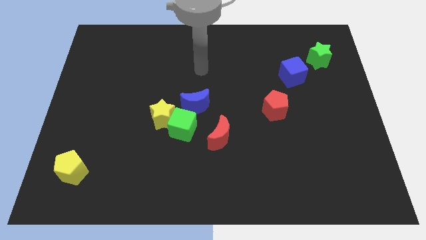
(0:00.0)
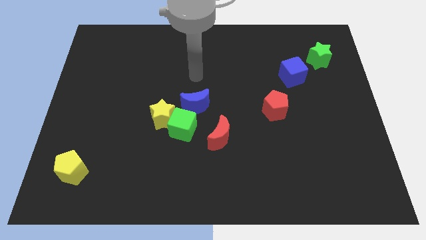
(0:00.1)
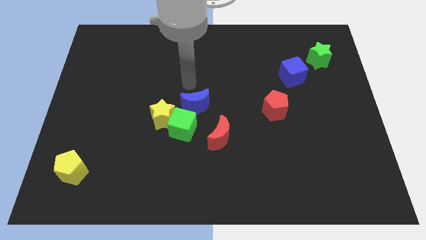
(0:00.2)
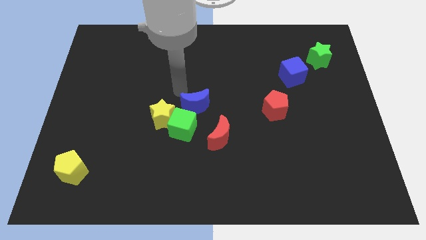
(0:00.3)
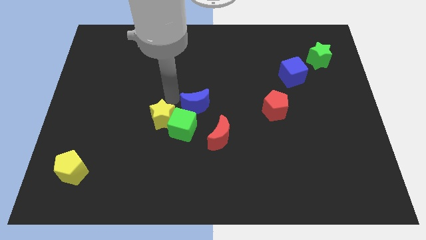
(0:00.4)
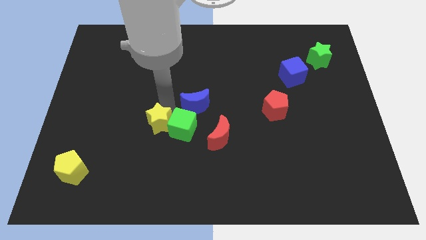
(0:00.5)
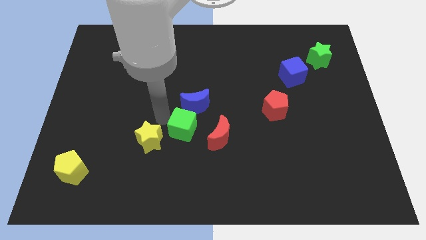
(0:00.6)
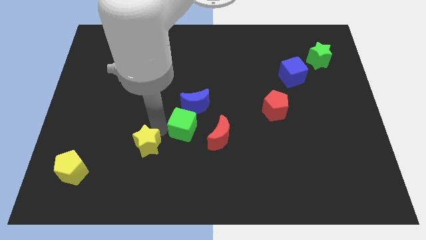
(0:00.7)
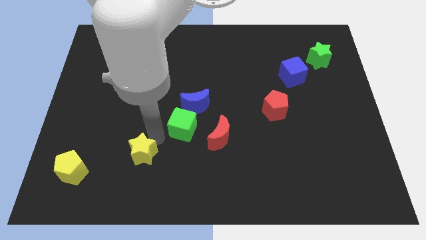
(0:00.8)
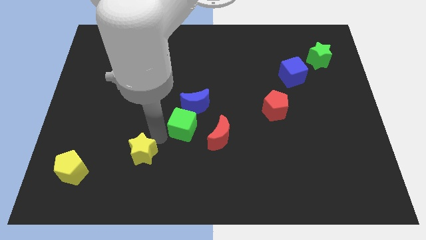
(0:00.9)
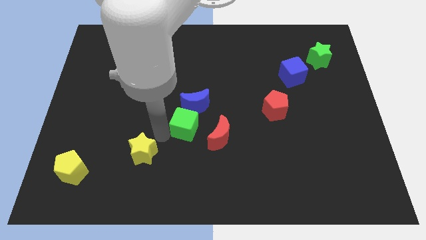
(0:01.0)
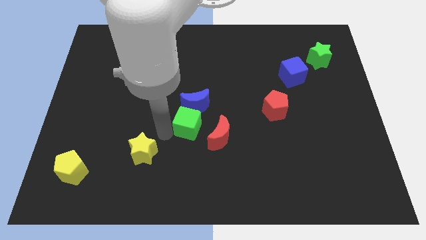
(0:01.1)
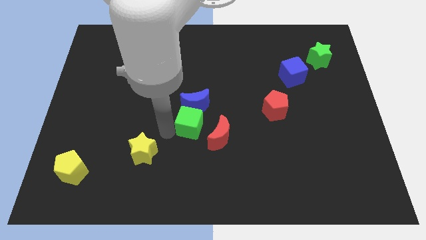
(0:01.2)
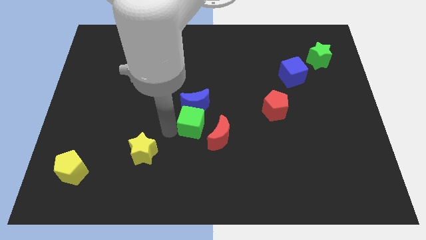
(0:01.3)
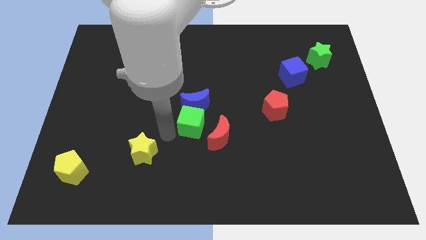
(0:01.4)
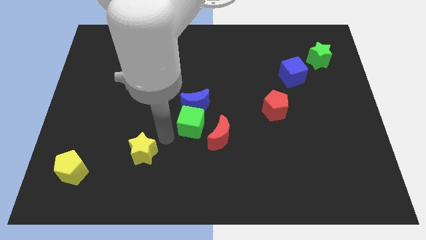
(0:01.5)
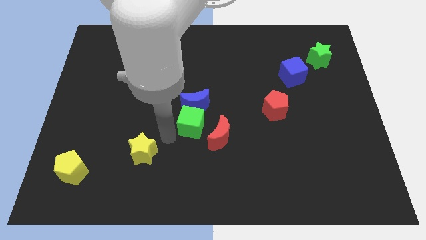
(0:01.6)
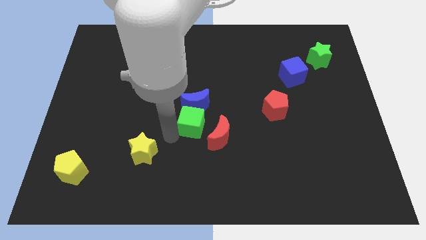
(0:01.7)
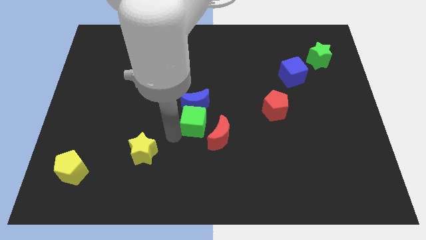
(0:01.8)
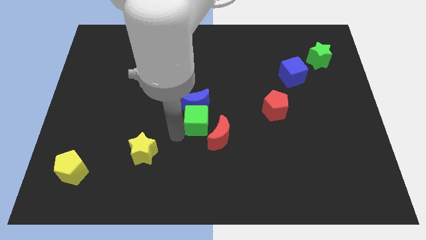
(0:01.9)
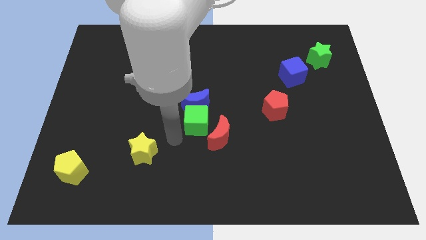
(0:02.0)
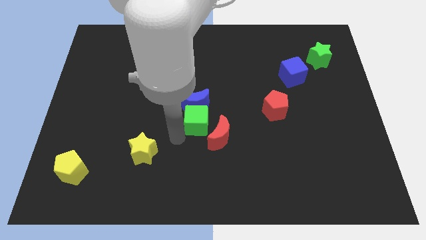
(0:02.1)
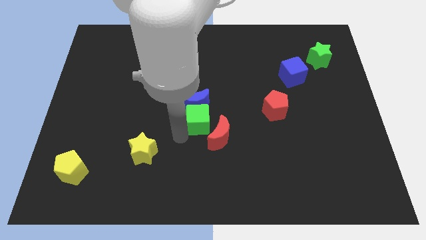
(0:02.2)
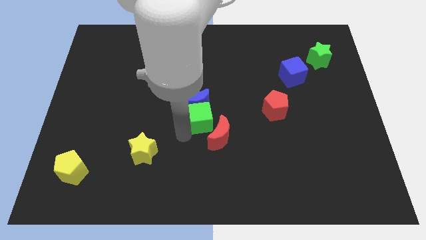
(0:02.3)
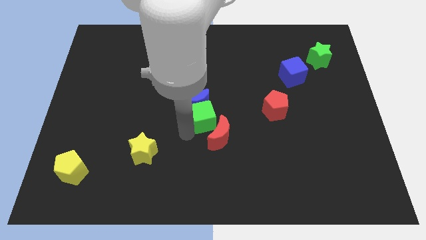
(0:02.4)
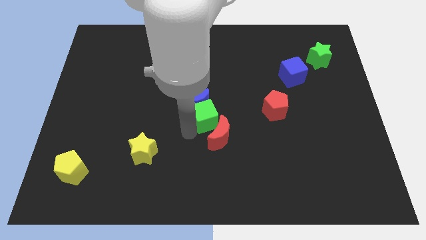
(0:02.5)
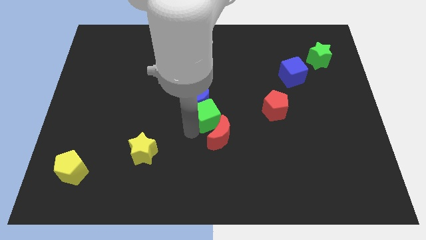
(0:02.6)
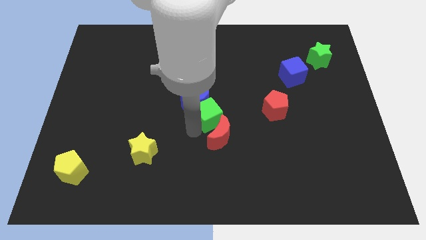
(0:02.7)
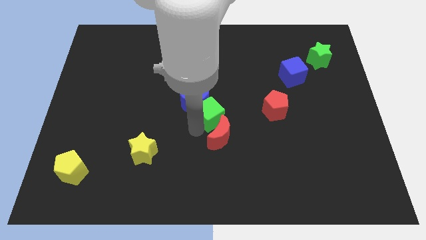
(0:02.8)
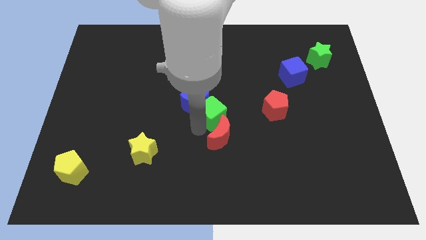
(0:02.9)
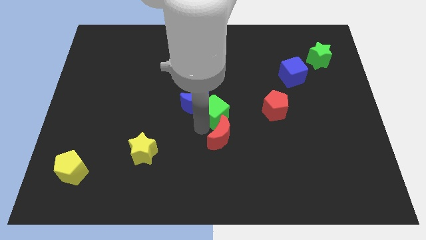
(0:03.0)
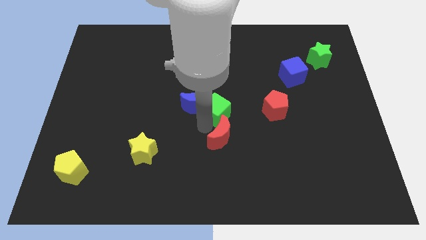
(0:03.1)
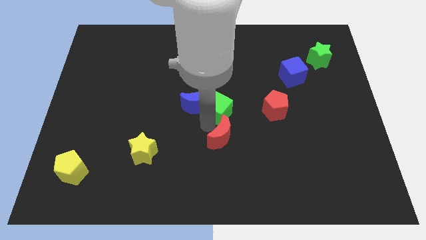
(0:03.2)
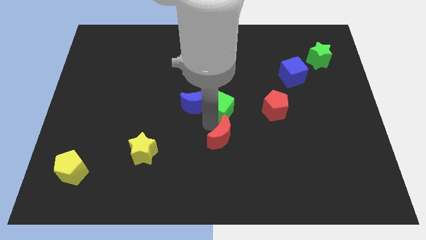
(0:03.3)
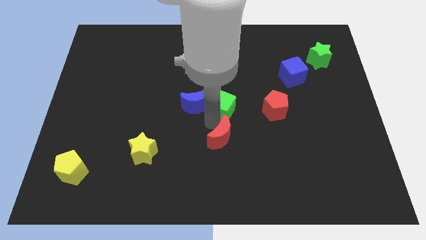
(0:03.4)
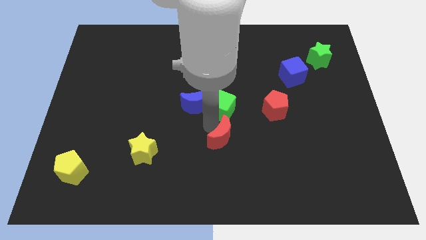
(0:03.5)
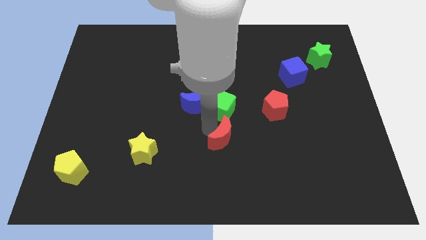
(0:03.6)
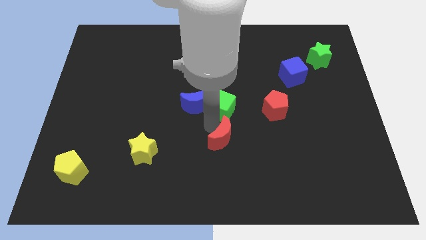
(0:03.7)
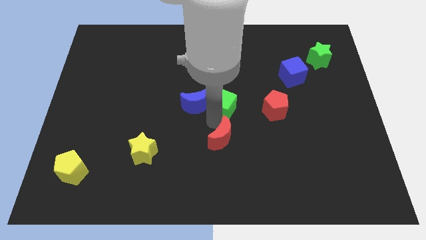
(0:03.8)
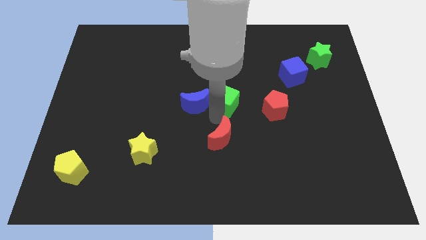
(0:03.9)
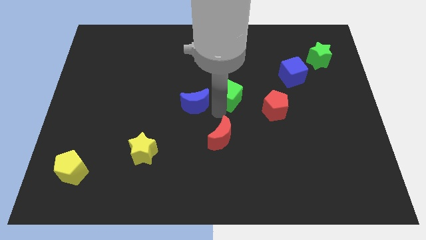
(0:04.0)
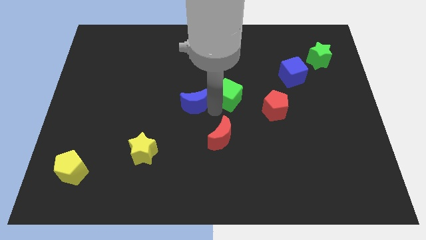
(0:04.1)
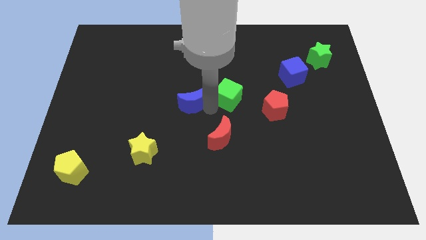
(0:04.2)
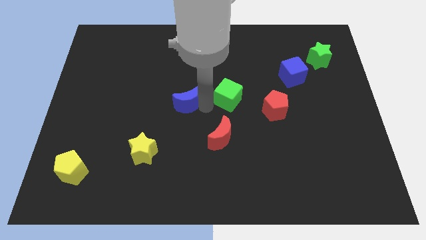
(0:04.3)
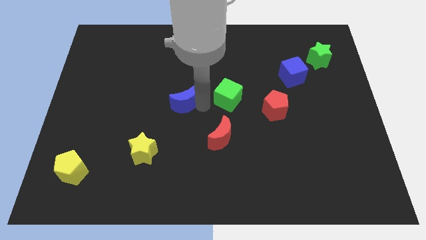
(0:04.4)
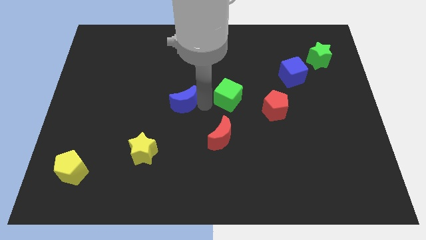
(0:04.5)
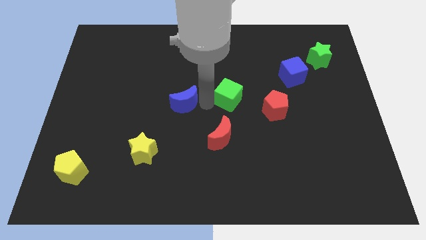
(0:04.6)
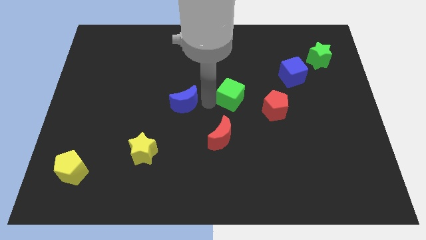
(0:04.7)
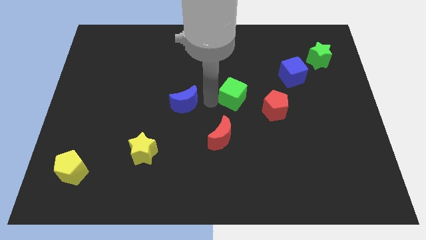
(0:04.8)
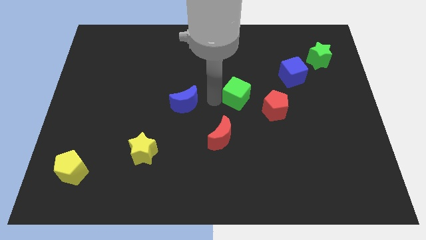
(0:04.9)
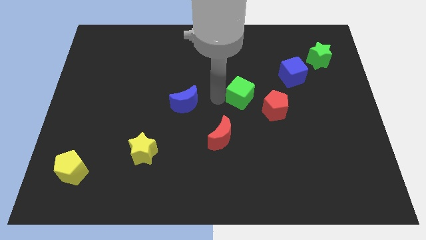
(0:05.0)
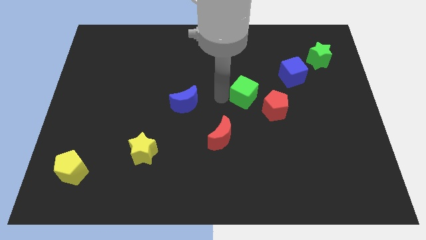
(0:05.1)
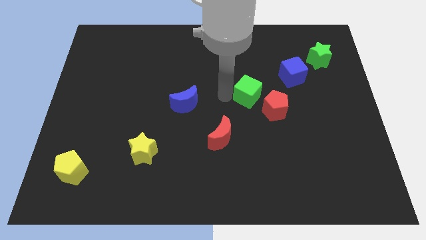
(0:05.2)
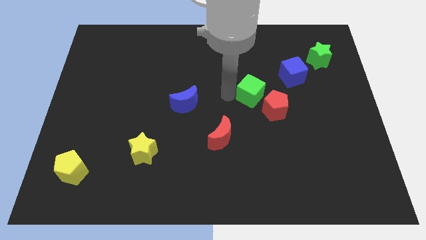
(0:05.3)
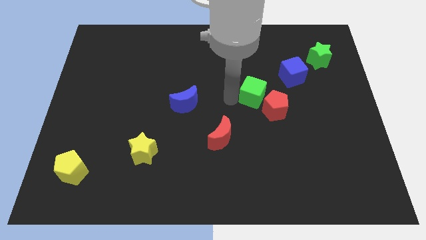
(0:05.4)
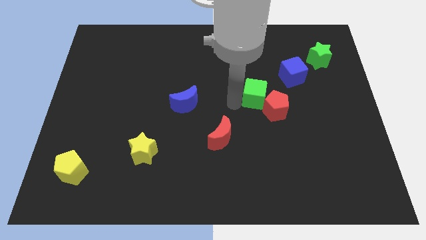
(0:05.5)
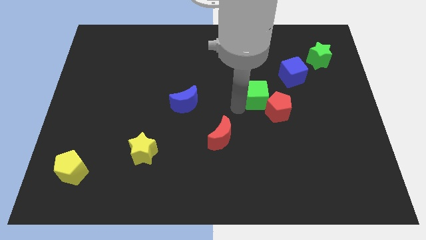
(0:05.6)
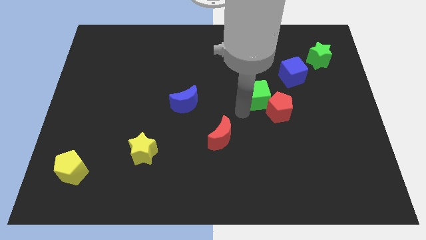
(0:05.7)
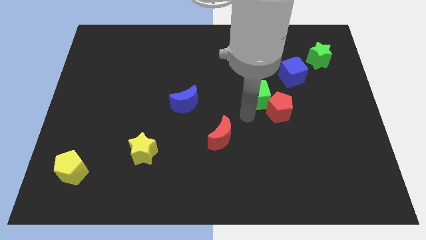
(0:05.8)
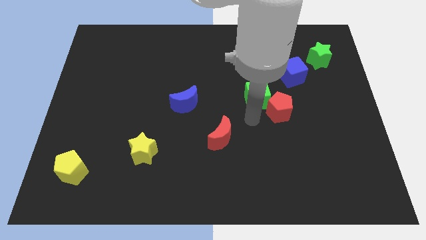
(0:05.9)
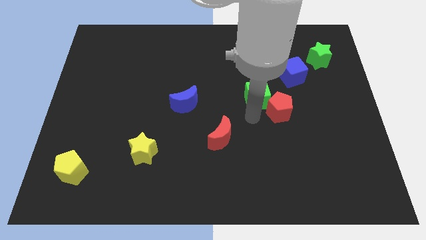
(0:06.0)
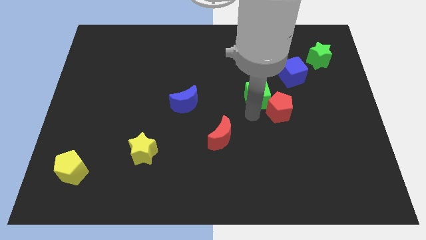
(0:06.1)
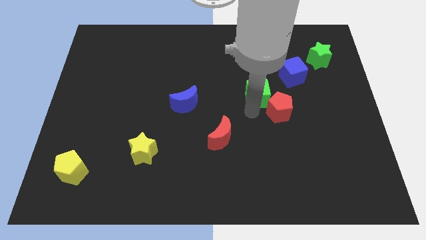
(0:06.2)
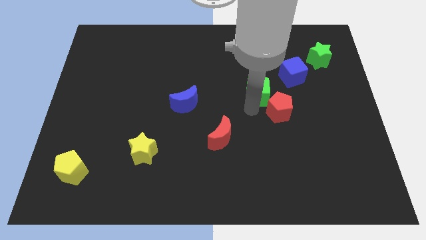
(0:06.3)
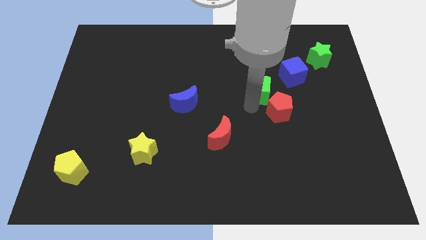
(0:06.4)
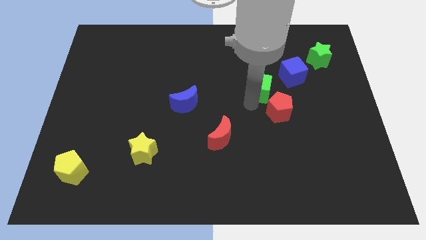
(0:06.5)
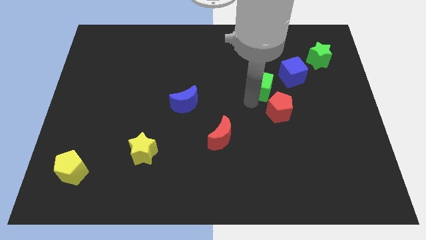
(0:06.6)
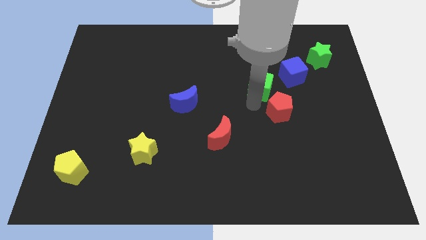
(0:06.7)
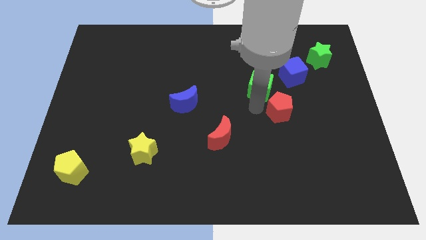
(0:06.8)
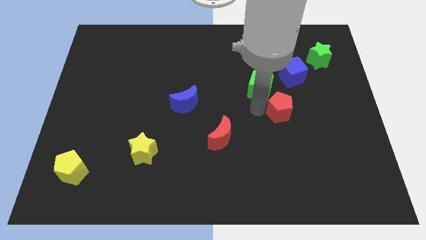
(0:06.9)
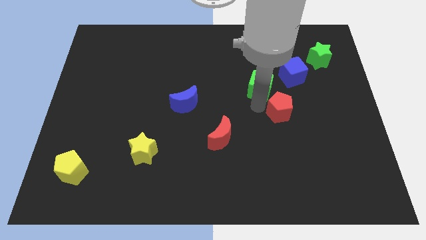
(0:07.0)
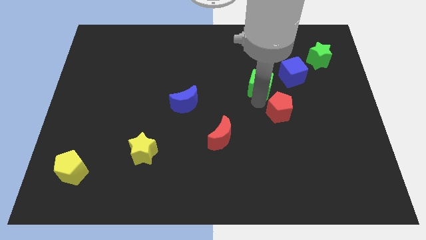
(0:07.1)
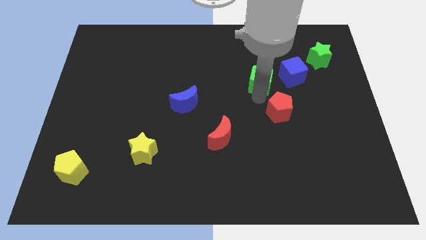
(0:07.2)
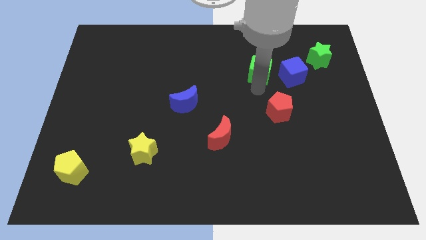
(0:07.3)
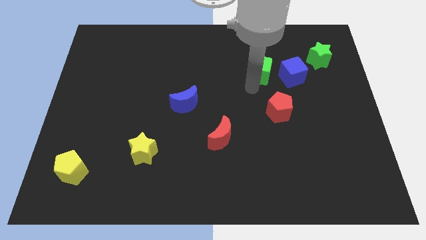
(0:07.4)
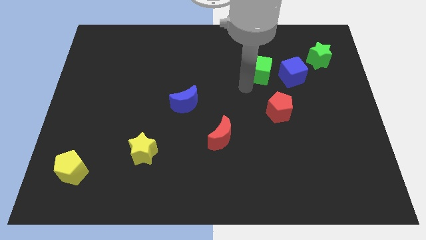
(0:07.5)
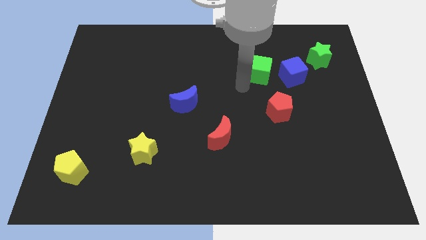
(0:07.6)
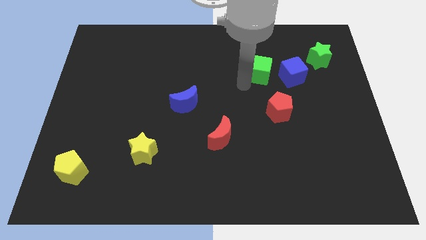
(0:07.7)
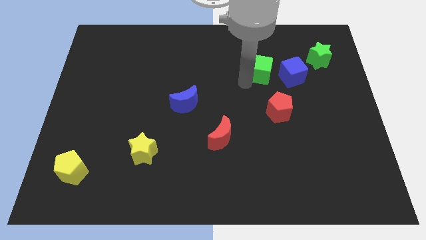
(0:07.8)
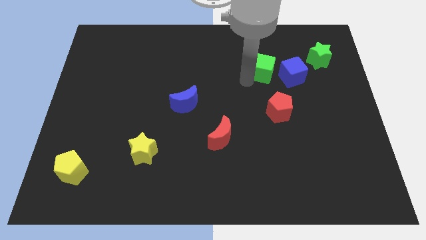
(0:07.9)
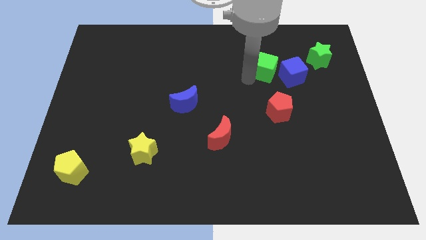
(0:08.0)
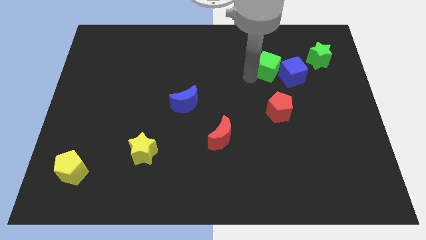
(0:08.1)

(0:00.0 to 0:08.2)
move the green cube just left of the green star
